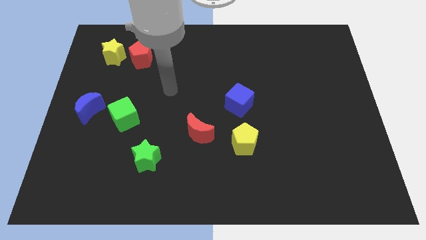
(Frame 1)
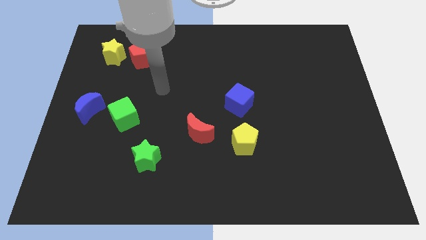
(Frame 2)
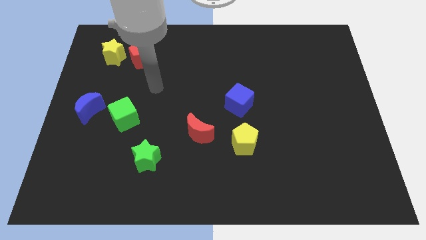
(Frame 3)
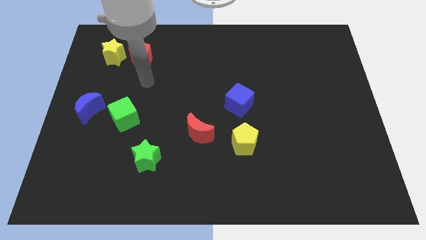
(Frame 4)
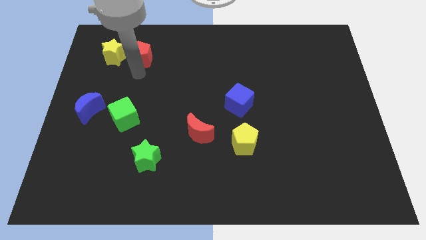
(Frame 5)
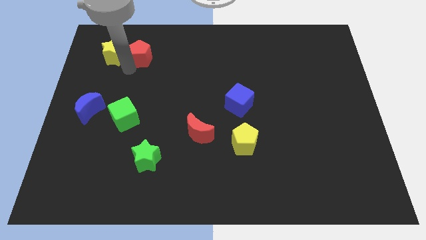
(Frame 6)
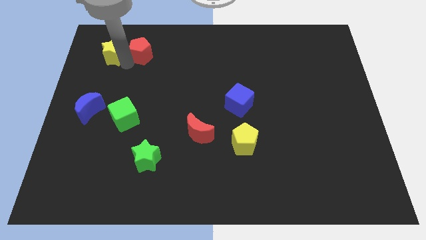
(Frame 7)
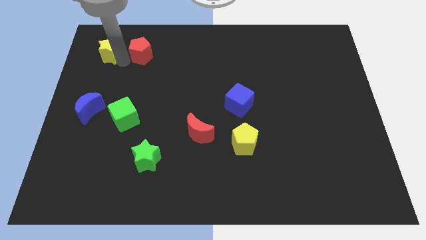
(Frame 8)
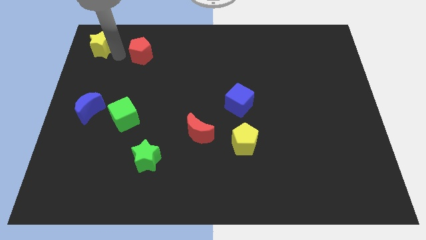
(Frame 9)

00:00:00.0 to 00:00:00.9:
pull the red pentagon apart from the yellow star

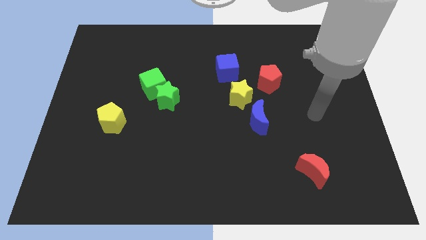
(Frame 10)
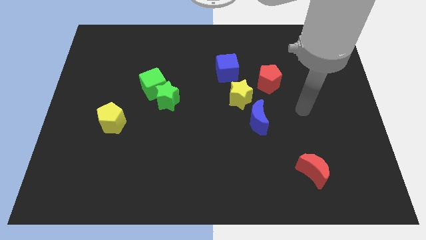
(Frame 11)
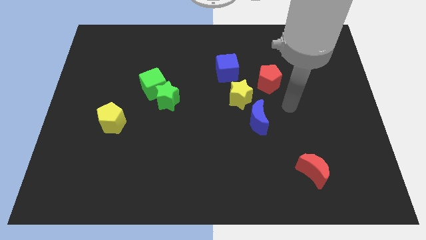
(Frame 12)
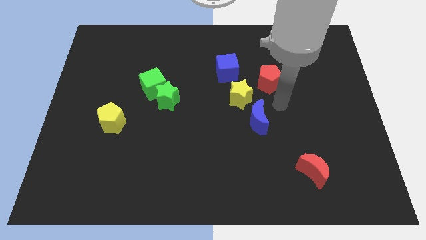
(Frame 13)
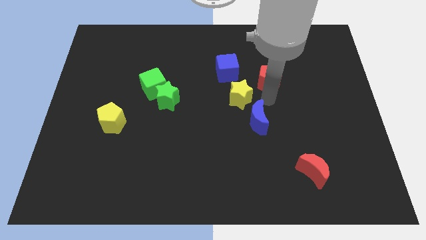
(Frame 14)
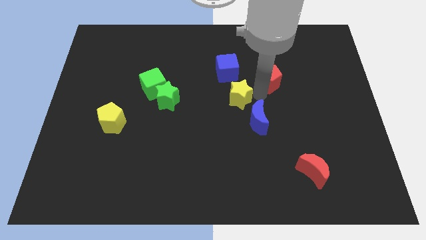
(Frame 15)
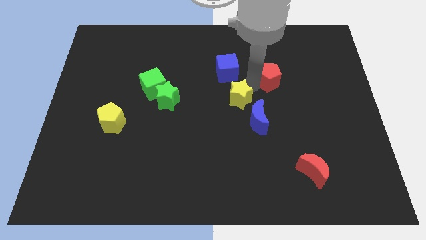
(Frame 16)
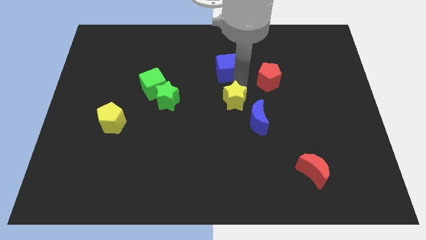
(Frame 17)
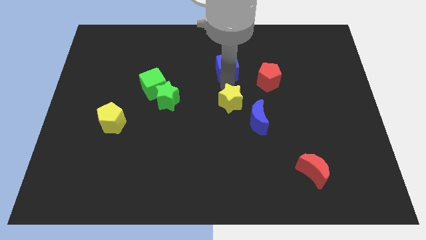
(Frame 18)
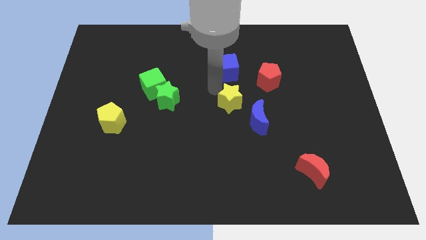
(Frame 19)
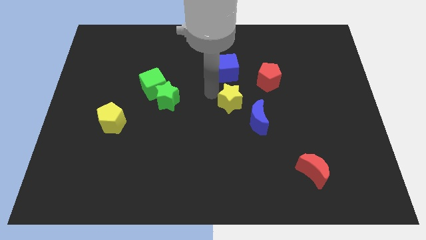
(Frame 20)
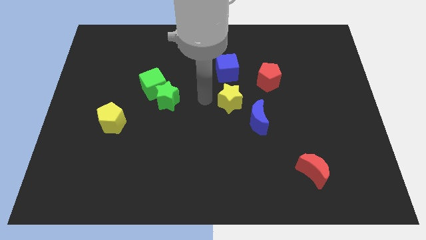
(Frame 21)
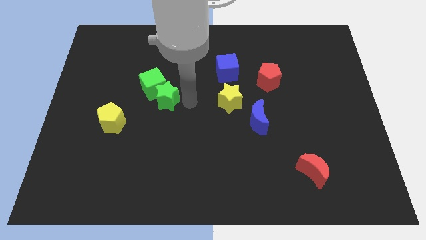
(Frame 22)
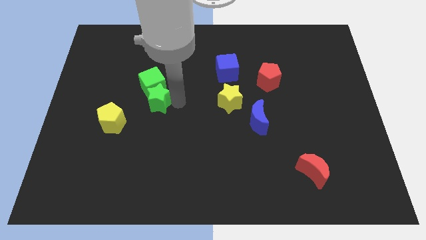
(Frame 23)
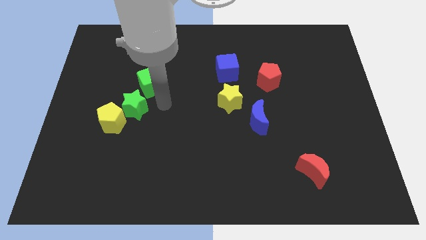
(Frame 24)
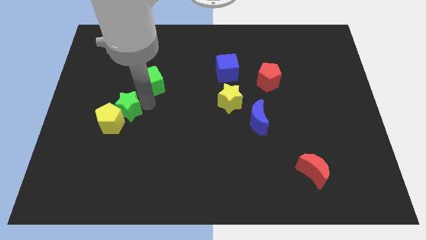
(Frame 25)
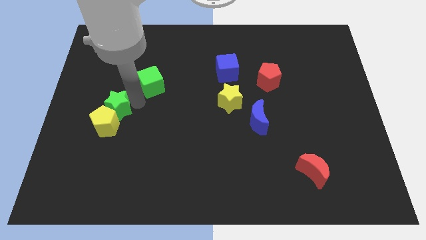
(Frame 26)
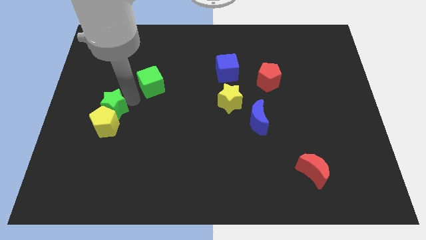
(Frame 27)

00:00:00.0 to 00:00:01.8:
separate the green cube from the green star

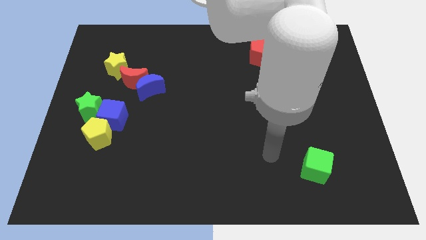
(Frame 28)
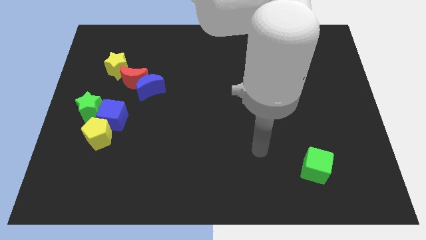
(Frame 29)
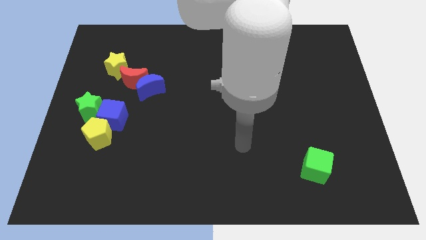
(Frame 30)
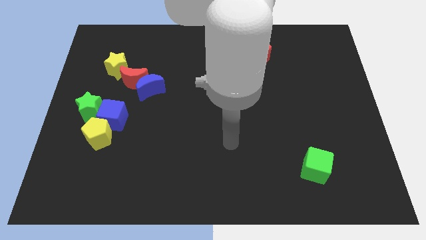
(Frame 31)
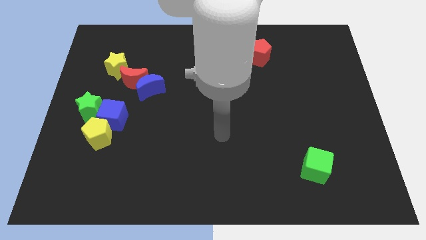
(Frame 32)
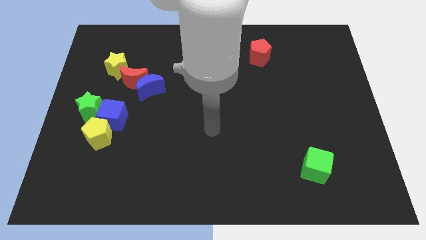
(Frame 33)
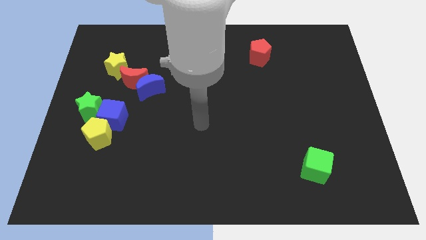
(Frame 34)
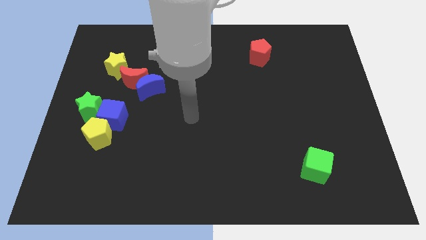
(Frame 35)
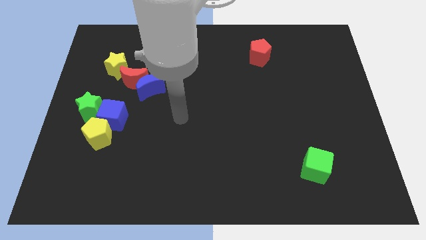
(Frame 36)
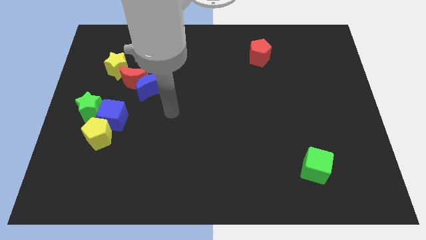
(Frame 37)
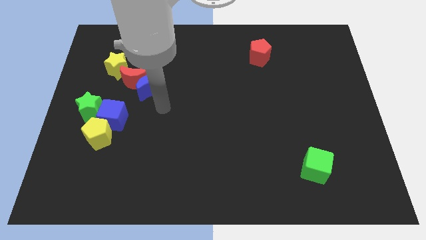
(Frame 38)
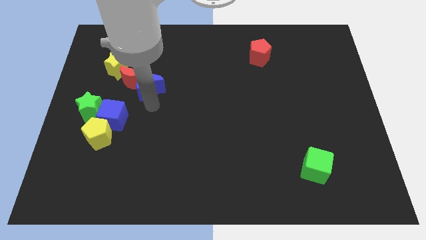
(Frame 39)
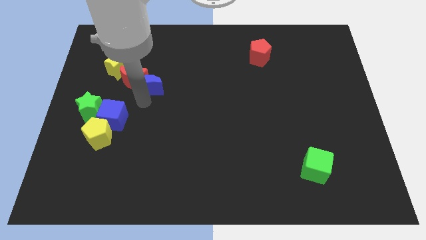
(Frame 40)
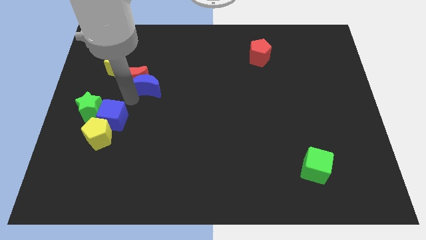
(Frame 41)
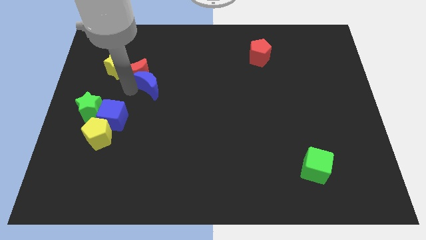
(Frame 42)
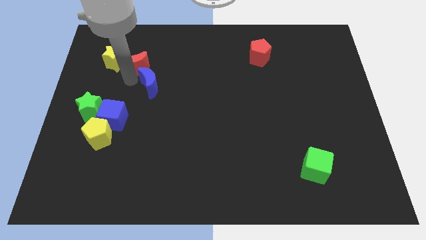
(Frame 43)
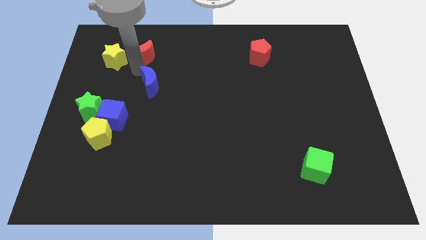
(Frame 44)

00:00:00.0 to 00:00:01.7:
pull the blue moon apart from the red moon

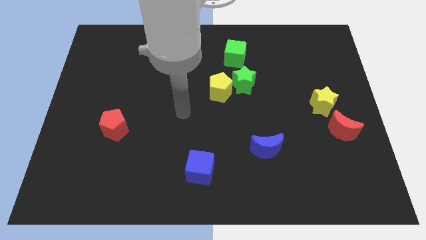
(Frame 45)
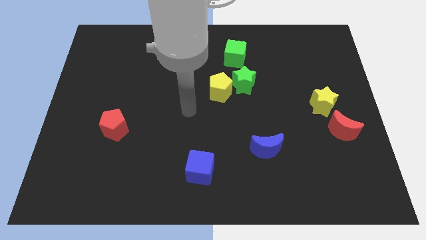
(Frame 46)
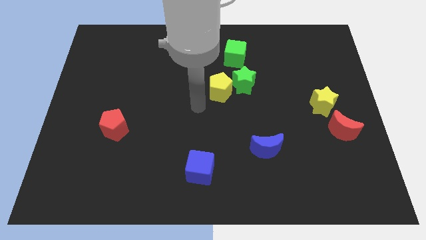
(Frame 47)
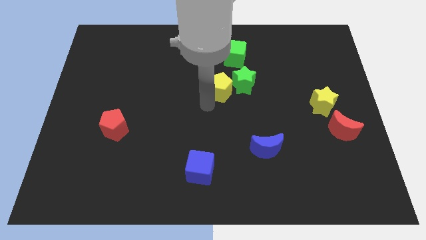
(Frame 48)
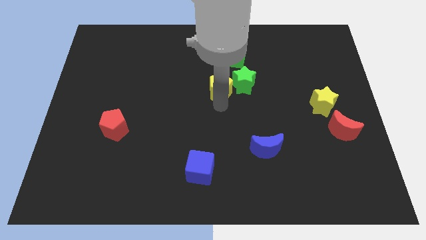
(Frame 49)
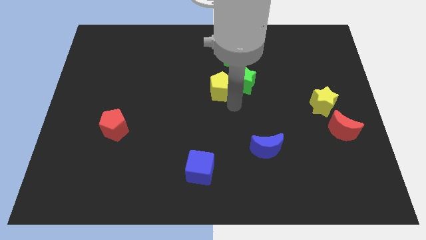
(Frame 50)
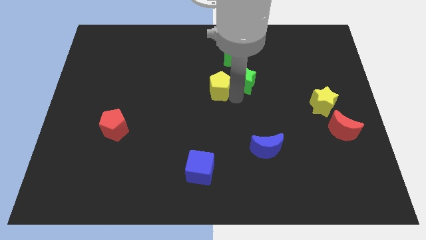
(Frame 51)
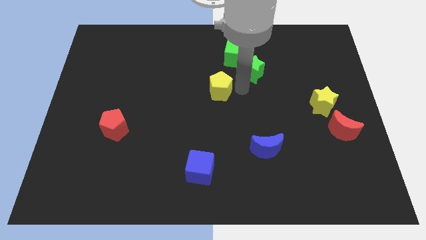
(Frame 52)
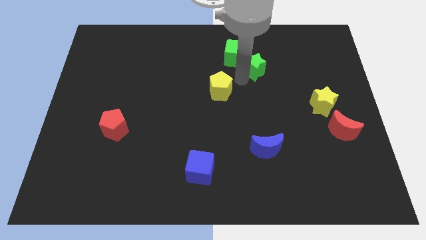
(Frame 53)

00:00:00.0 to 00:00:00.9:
move the yellow pentagon away from the green star

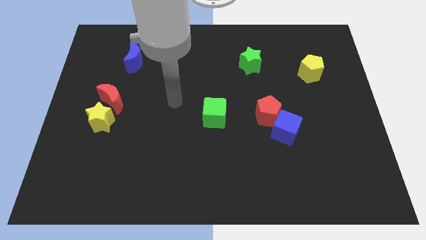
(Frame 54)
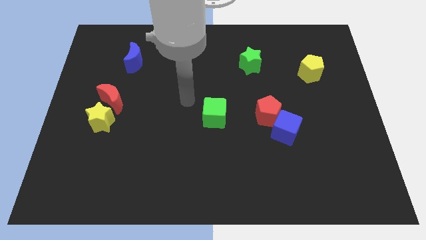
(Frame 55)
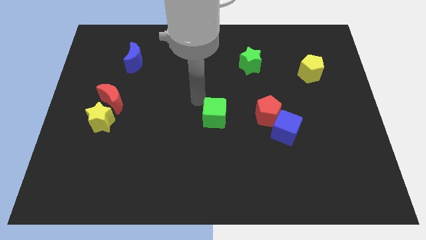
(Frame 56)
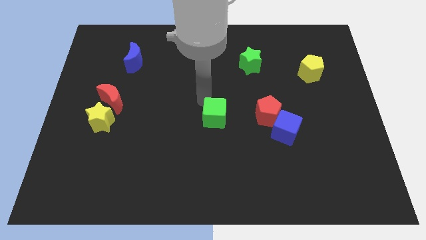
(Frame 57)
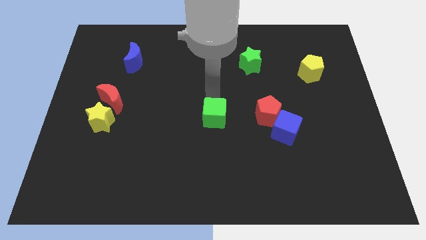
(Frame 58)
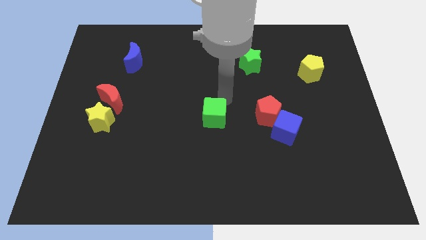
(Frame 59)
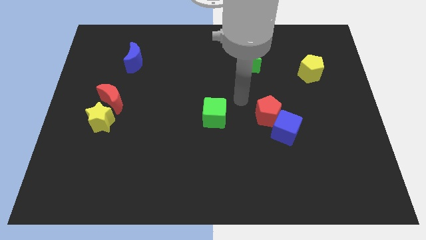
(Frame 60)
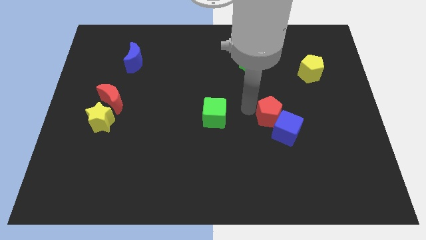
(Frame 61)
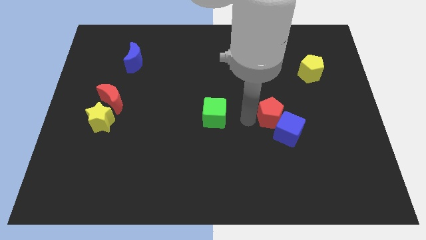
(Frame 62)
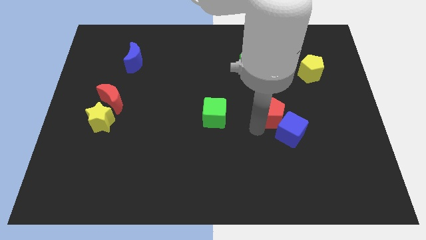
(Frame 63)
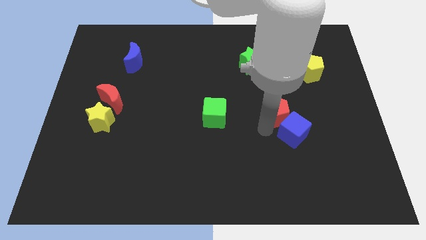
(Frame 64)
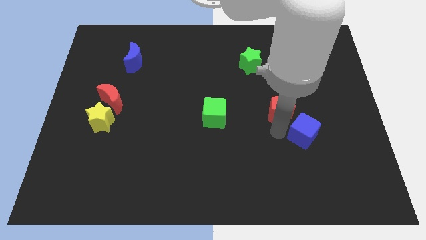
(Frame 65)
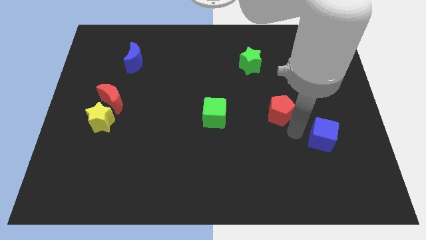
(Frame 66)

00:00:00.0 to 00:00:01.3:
move the red pentagon away from the blue cube

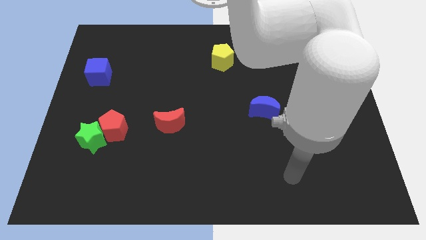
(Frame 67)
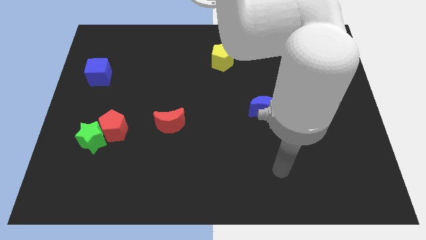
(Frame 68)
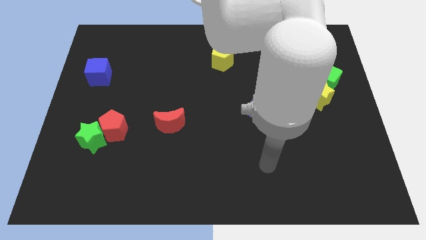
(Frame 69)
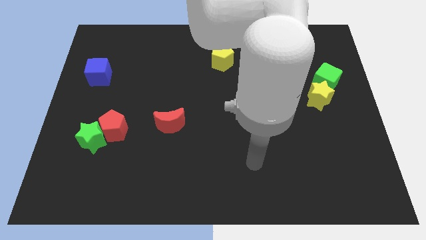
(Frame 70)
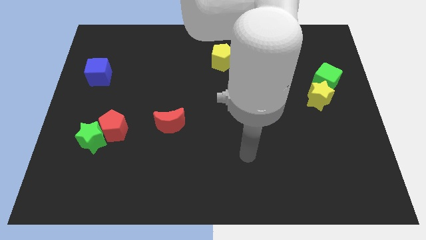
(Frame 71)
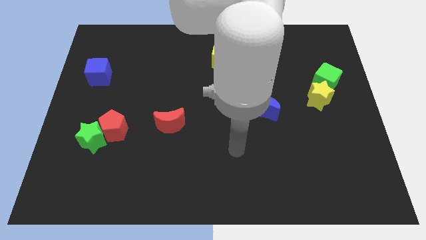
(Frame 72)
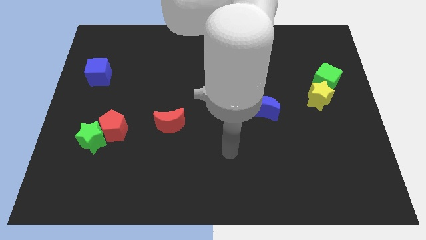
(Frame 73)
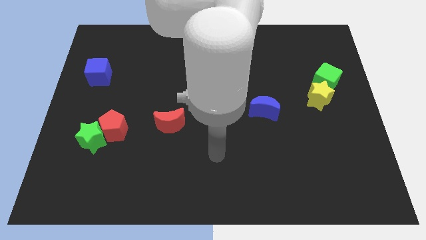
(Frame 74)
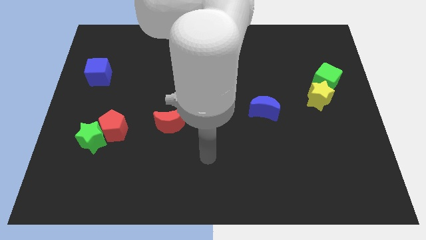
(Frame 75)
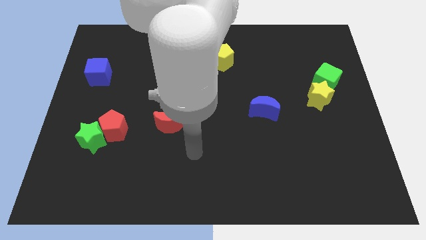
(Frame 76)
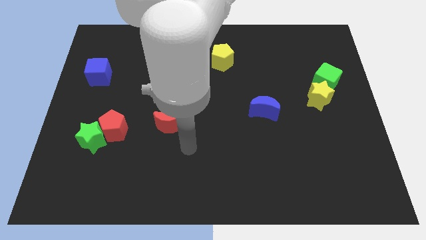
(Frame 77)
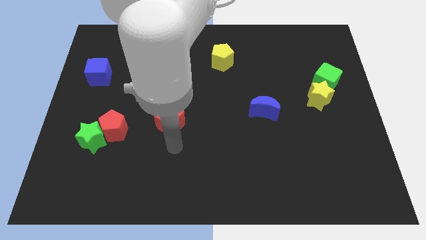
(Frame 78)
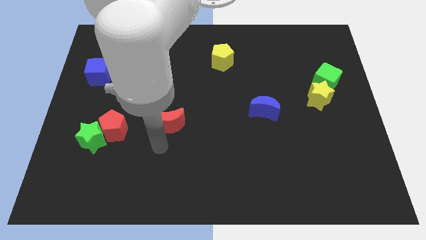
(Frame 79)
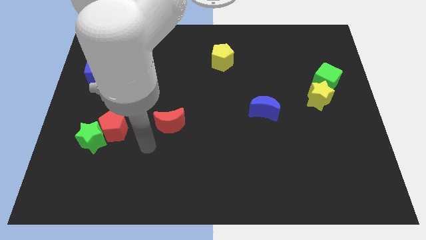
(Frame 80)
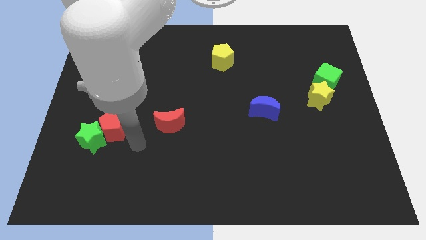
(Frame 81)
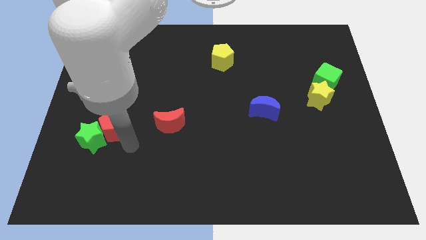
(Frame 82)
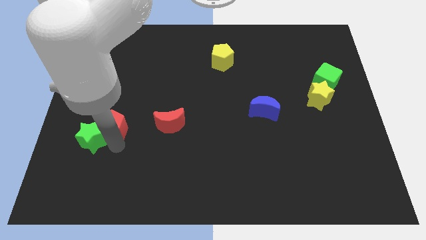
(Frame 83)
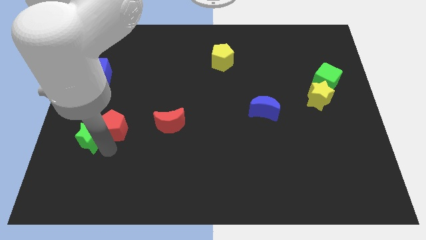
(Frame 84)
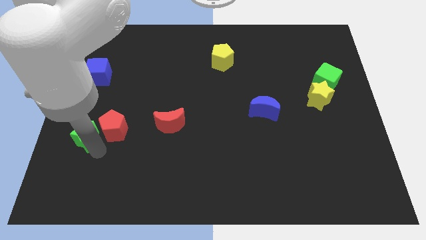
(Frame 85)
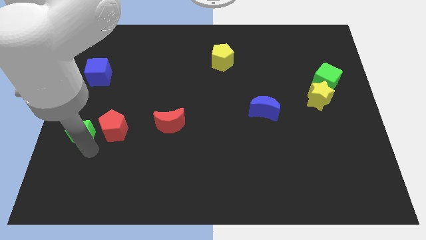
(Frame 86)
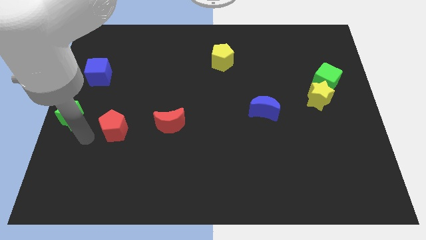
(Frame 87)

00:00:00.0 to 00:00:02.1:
separate the red pentagon from the green star

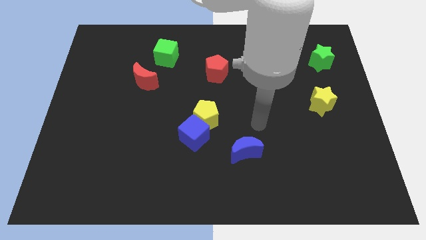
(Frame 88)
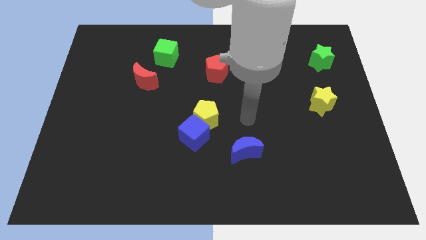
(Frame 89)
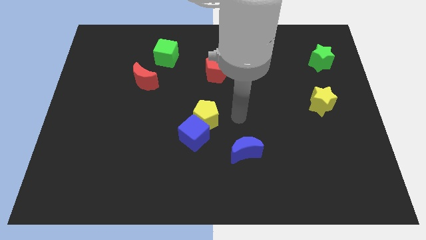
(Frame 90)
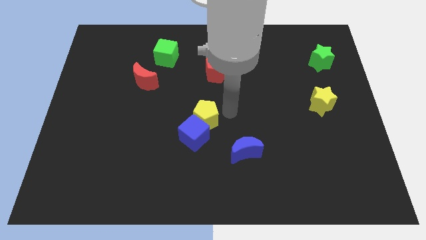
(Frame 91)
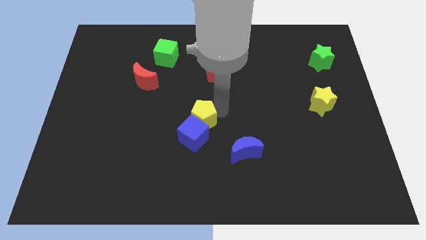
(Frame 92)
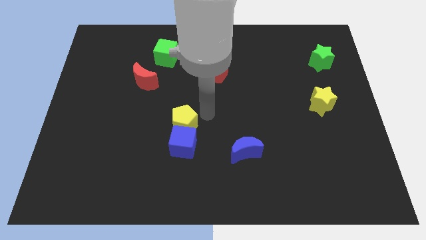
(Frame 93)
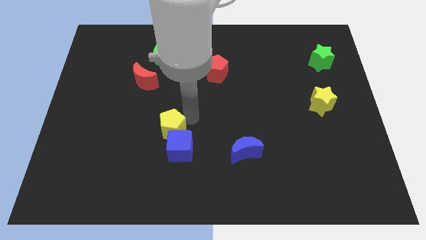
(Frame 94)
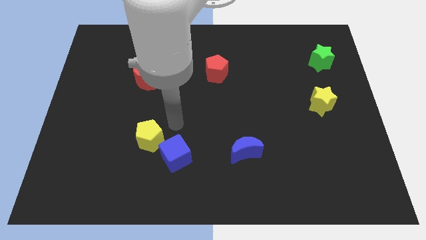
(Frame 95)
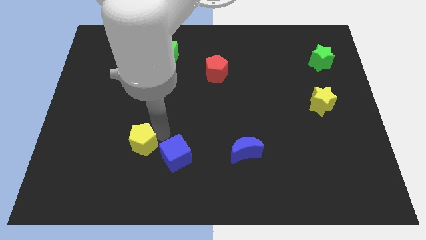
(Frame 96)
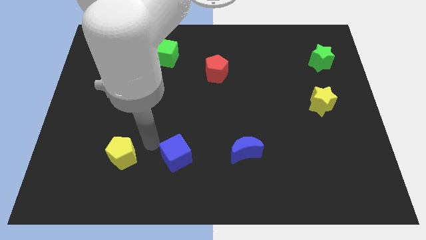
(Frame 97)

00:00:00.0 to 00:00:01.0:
separate the blue cube from the yellow pentagon
